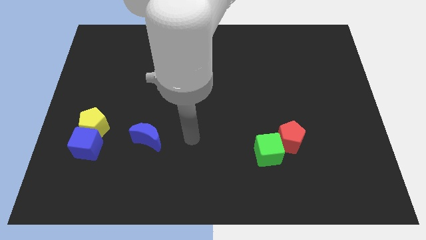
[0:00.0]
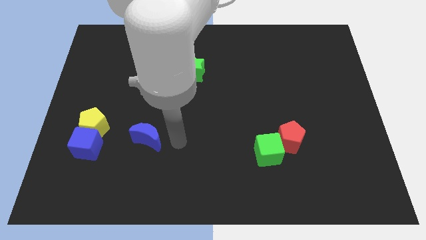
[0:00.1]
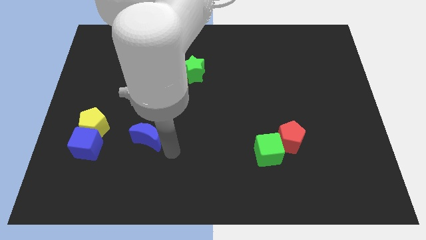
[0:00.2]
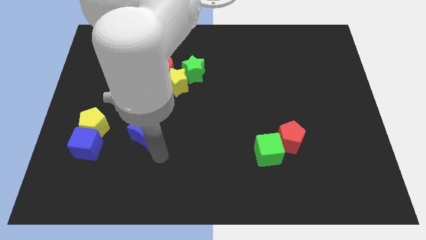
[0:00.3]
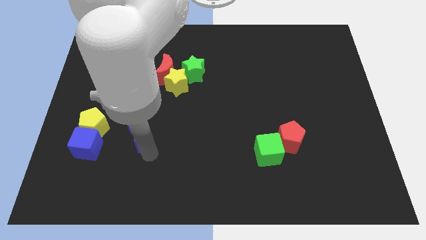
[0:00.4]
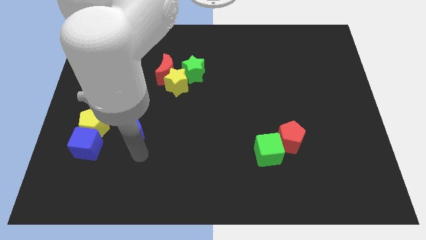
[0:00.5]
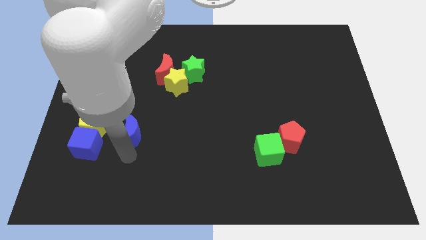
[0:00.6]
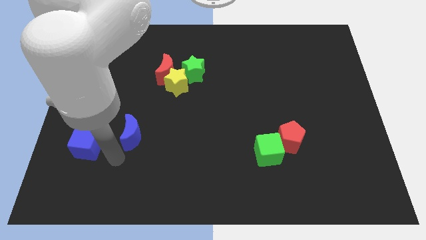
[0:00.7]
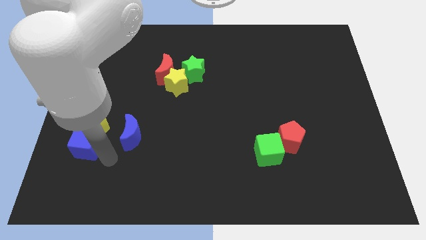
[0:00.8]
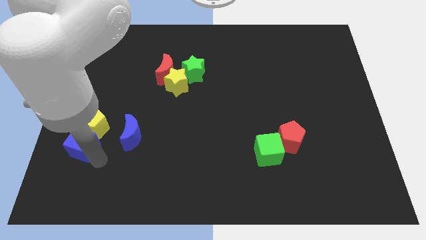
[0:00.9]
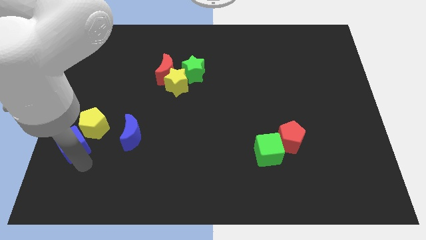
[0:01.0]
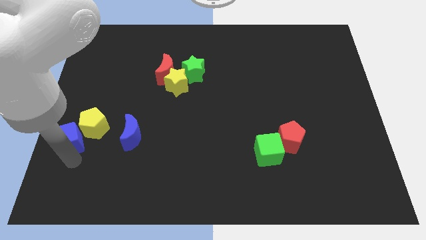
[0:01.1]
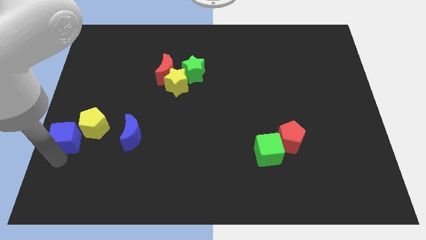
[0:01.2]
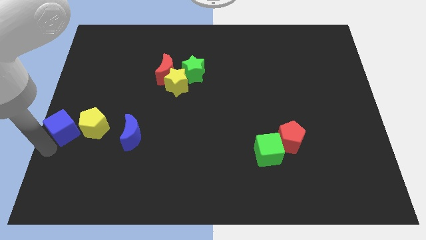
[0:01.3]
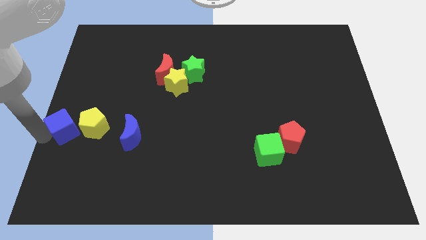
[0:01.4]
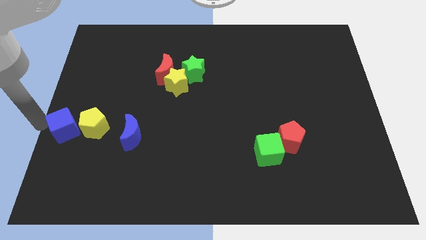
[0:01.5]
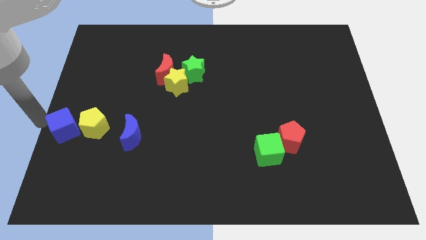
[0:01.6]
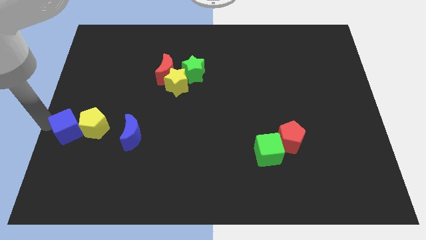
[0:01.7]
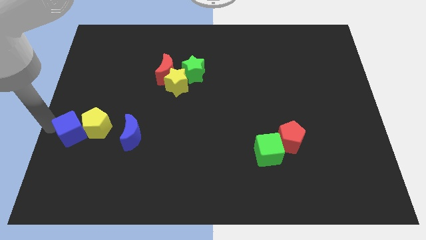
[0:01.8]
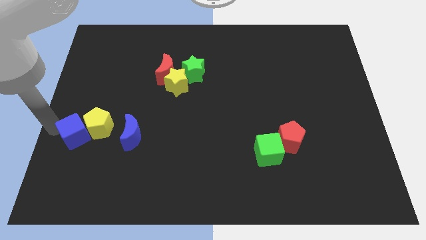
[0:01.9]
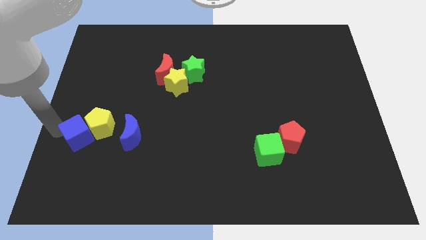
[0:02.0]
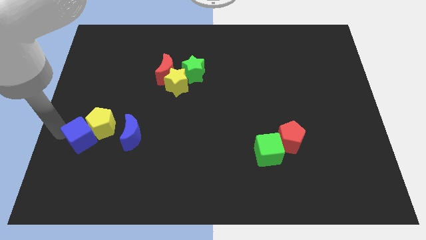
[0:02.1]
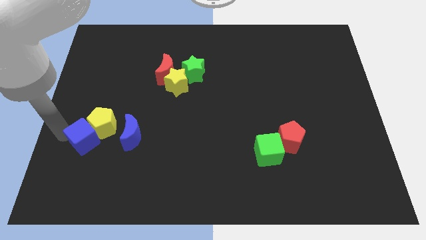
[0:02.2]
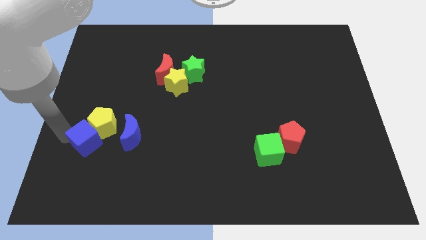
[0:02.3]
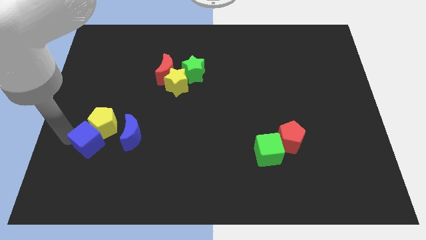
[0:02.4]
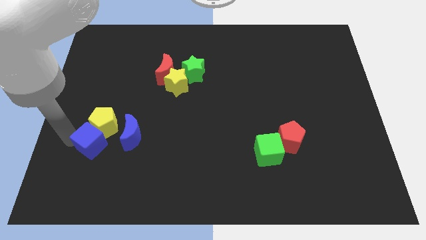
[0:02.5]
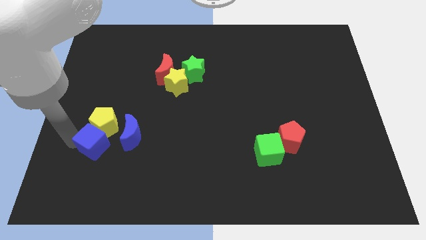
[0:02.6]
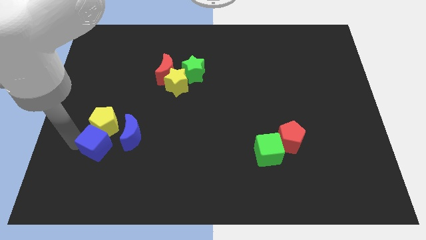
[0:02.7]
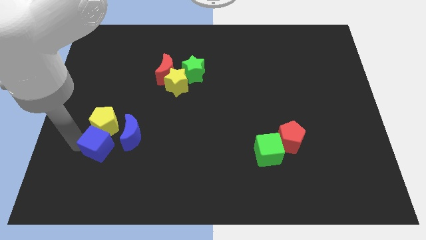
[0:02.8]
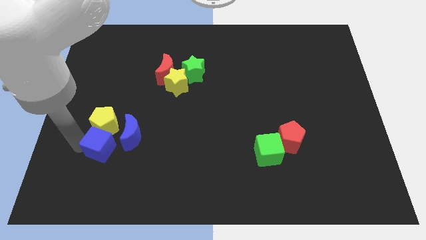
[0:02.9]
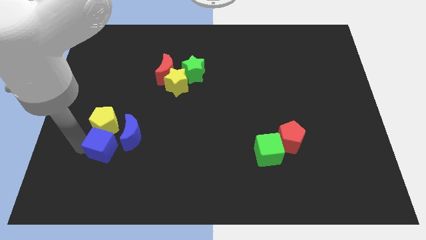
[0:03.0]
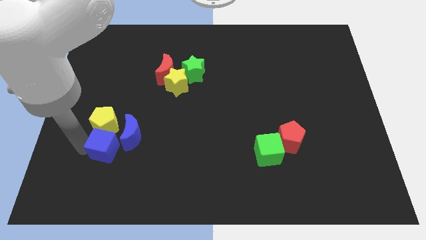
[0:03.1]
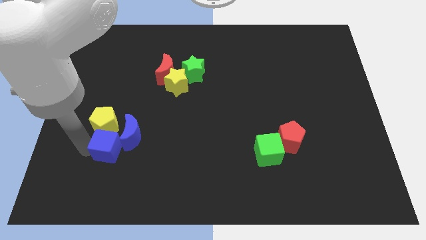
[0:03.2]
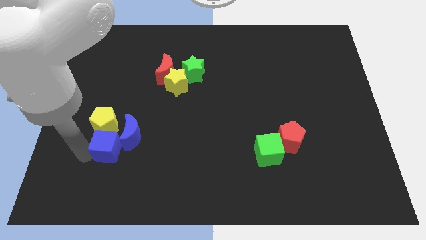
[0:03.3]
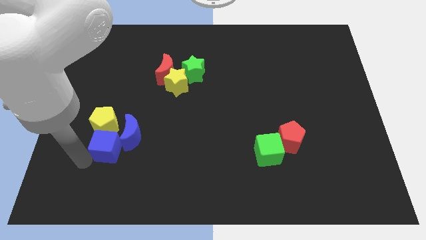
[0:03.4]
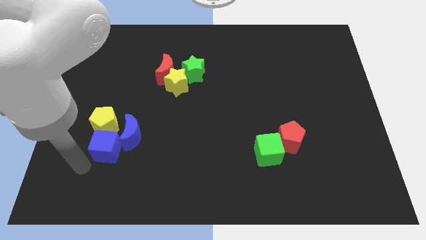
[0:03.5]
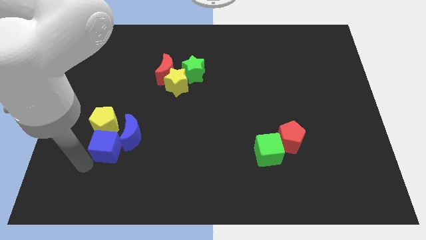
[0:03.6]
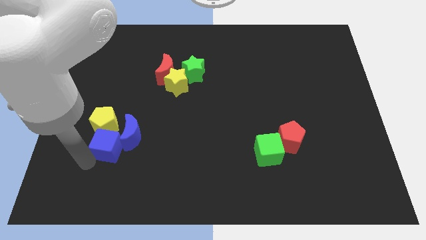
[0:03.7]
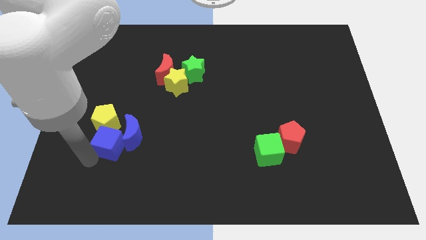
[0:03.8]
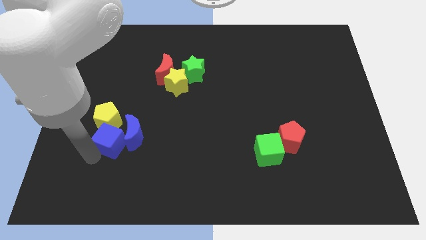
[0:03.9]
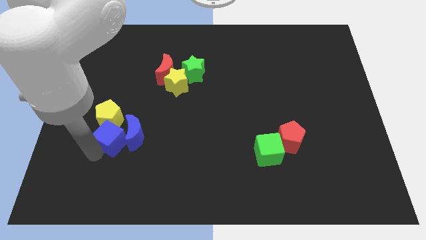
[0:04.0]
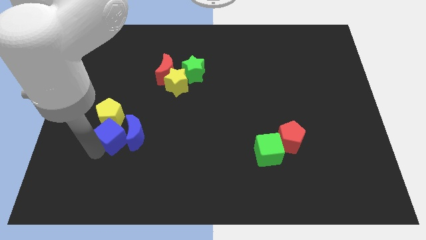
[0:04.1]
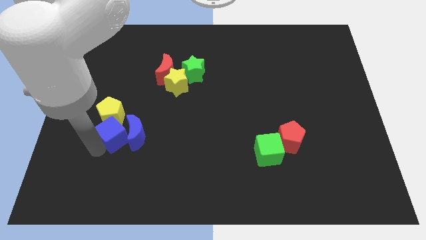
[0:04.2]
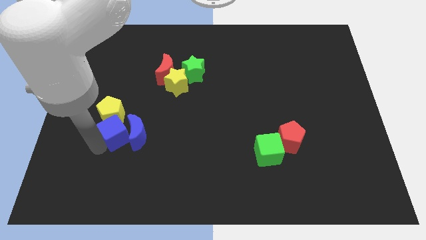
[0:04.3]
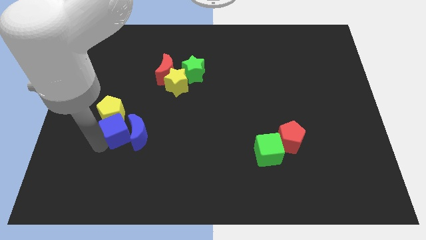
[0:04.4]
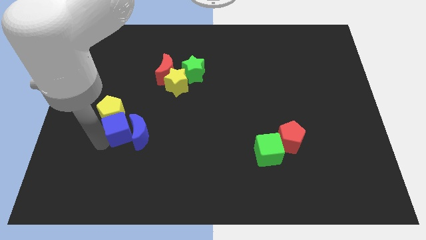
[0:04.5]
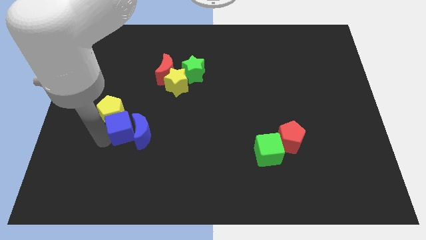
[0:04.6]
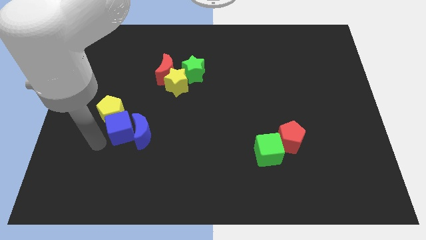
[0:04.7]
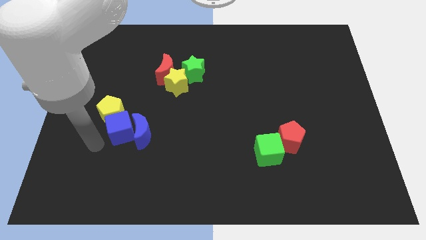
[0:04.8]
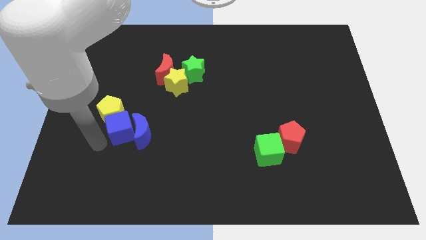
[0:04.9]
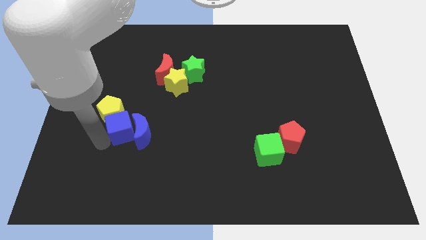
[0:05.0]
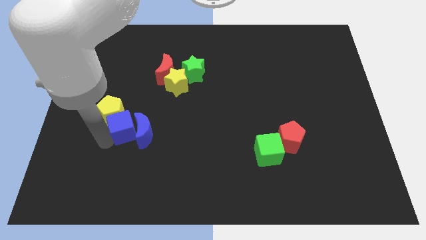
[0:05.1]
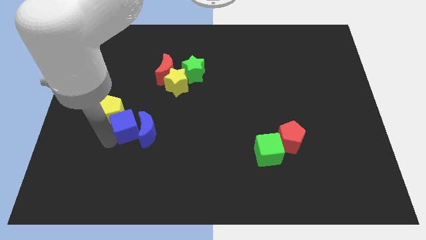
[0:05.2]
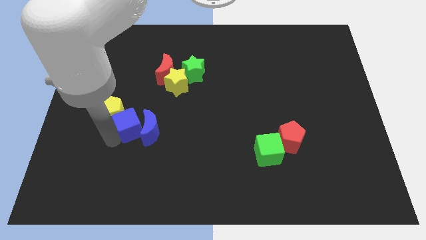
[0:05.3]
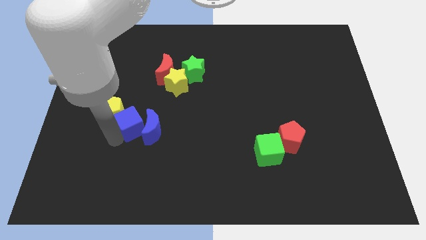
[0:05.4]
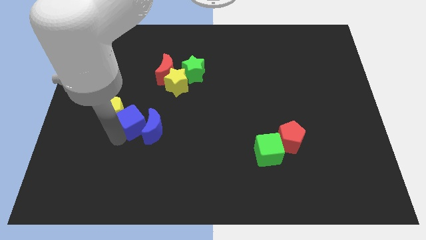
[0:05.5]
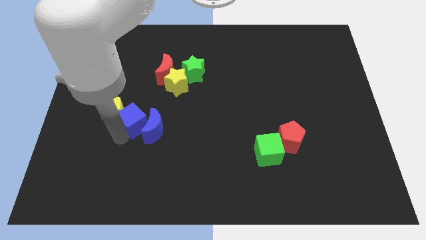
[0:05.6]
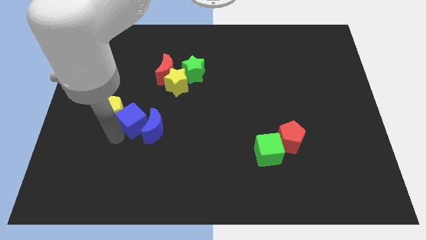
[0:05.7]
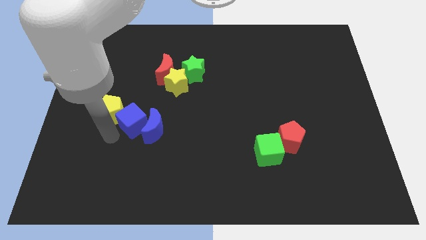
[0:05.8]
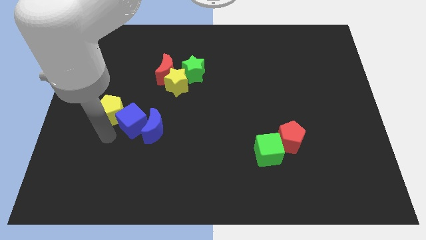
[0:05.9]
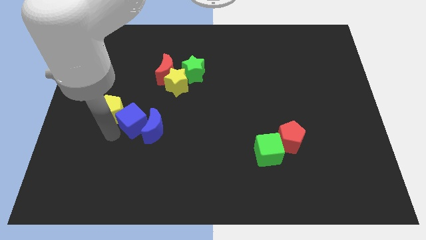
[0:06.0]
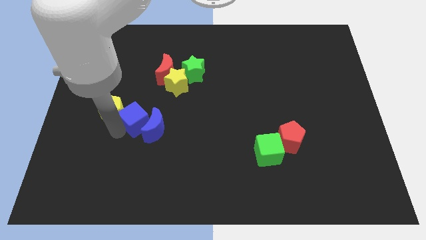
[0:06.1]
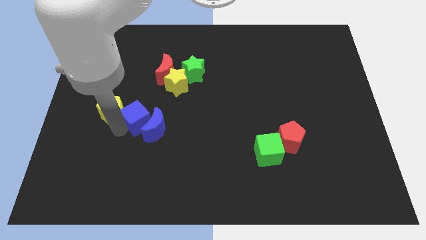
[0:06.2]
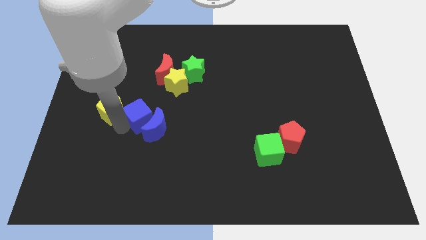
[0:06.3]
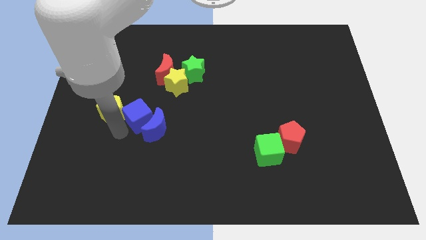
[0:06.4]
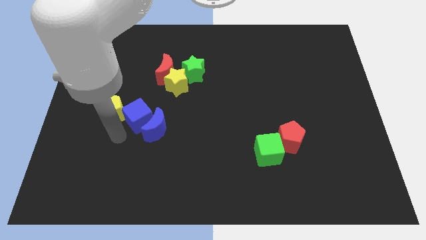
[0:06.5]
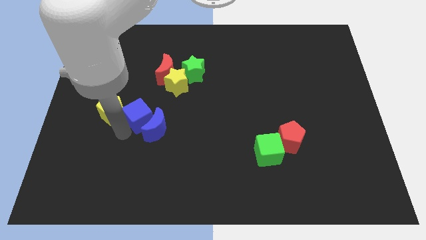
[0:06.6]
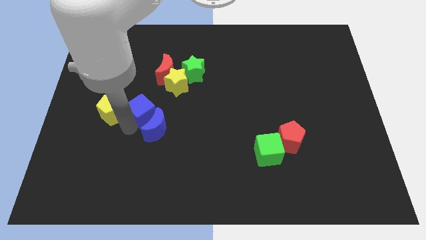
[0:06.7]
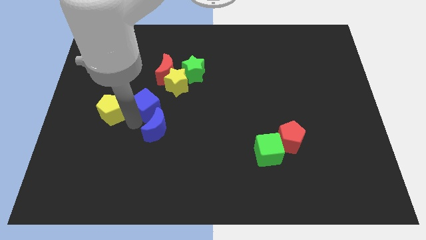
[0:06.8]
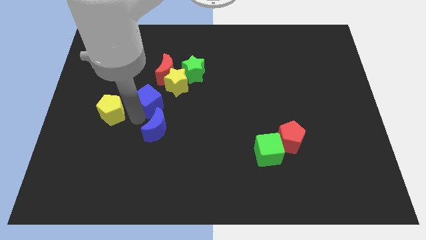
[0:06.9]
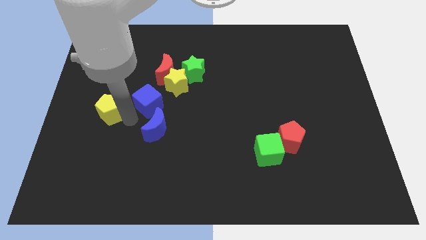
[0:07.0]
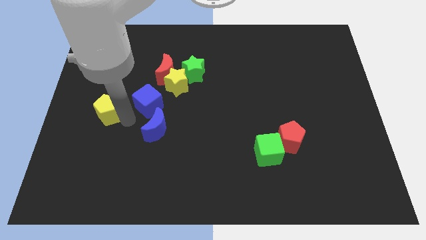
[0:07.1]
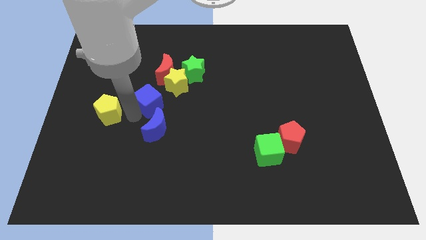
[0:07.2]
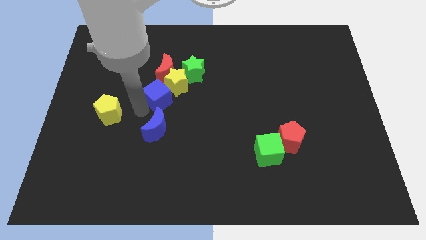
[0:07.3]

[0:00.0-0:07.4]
put the blue cube to the yellow star
